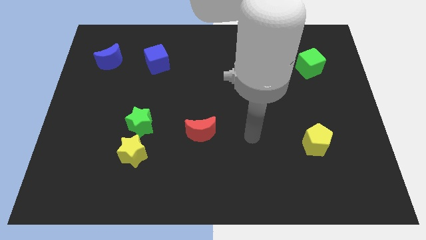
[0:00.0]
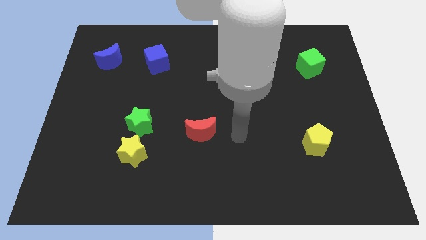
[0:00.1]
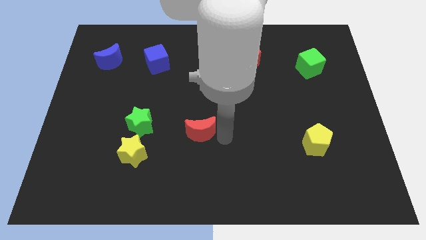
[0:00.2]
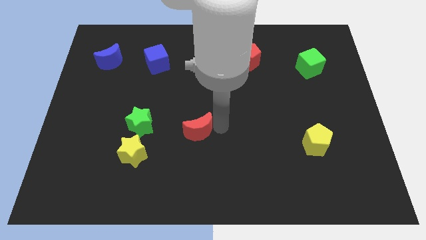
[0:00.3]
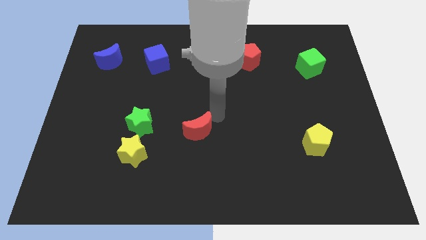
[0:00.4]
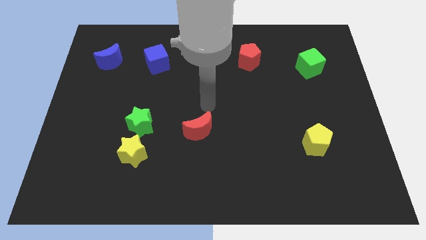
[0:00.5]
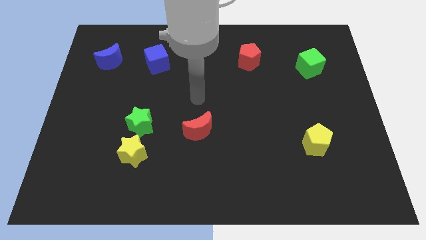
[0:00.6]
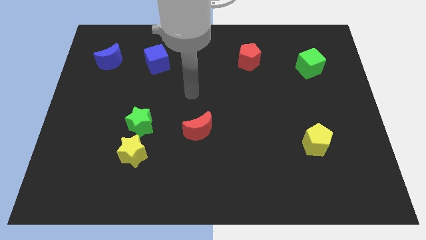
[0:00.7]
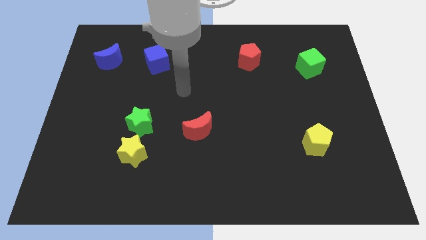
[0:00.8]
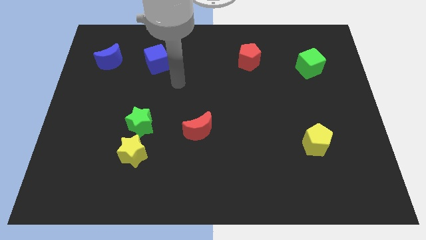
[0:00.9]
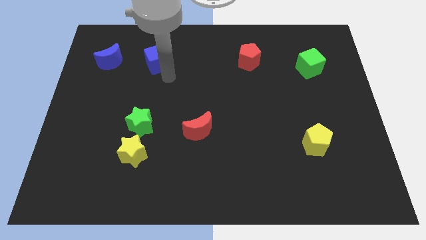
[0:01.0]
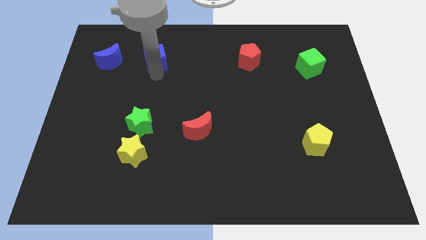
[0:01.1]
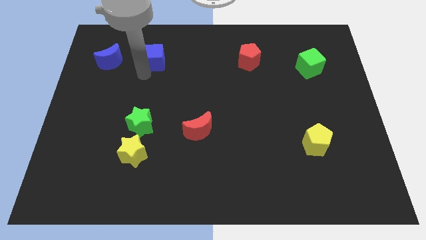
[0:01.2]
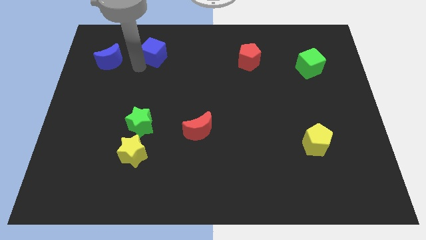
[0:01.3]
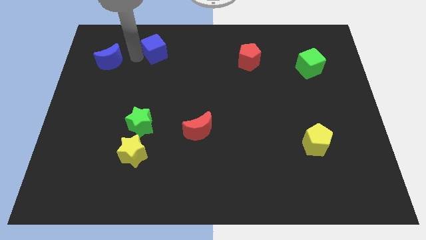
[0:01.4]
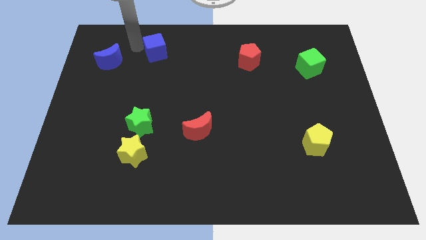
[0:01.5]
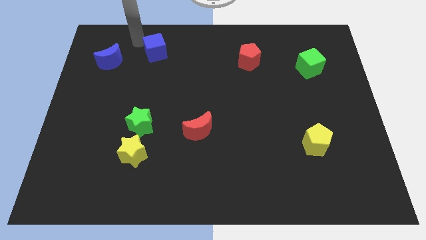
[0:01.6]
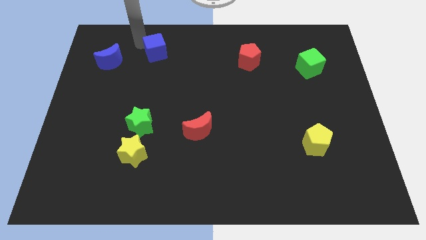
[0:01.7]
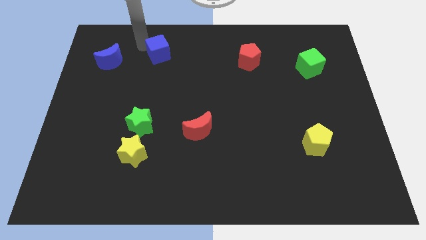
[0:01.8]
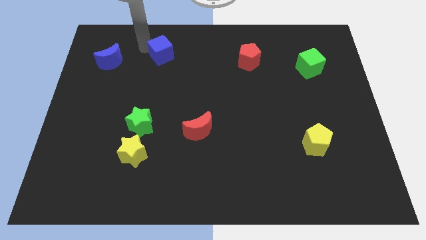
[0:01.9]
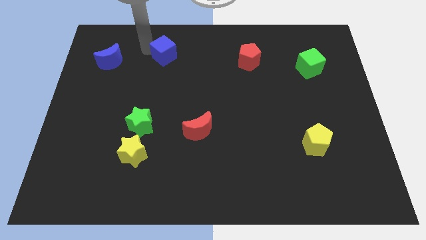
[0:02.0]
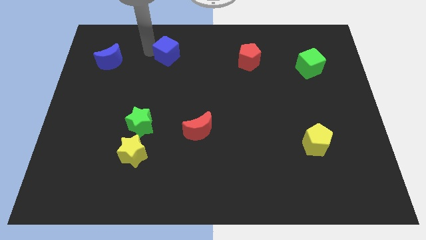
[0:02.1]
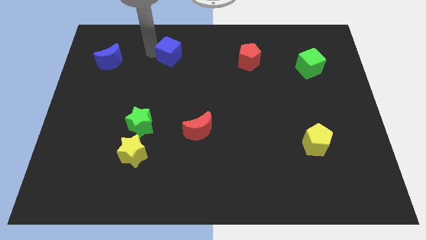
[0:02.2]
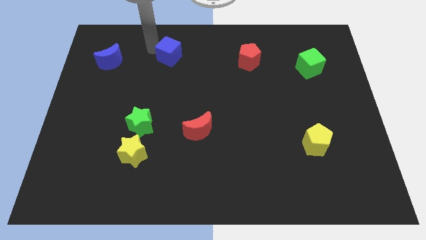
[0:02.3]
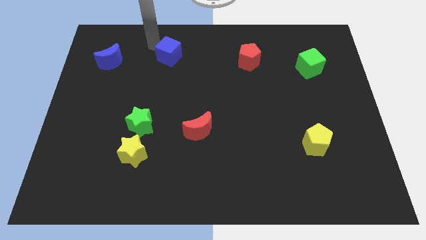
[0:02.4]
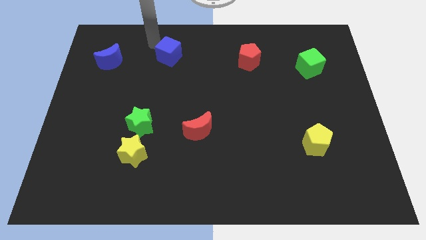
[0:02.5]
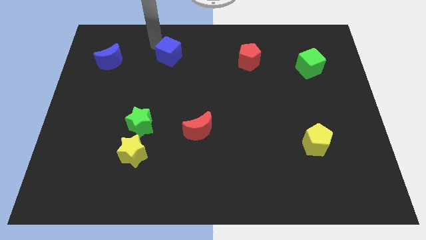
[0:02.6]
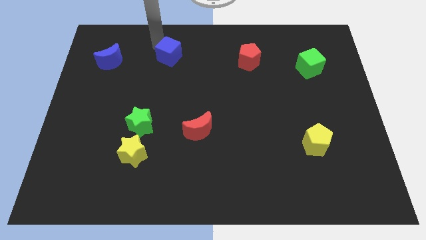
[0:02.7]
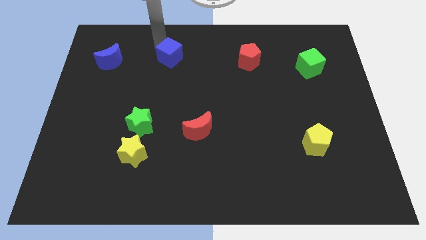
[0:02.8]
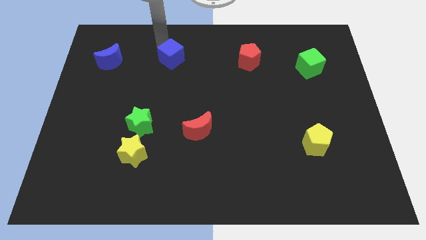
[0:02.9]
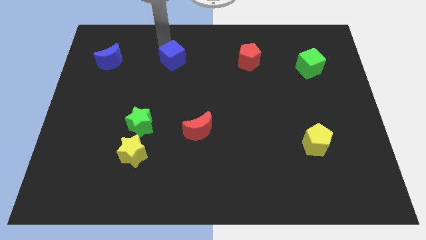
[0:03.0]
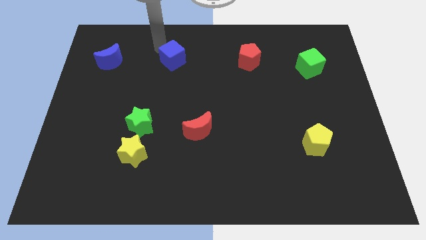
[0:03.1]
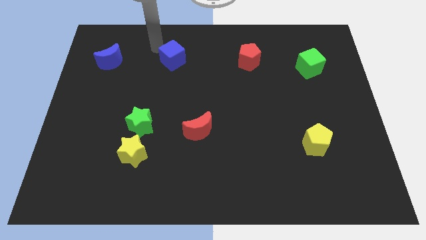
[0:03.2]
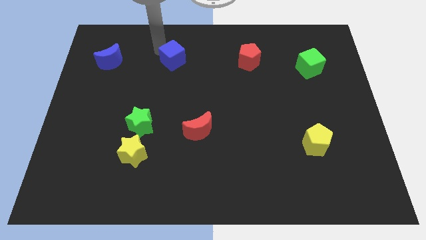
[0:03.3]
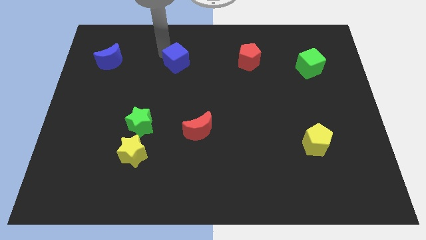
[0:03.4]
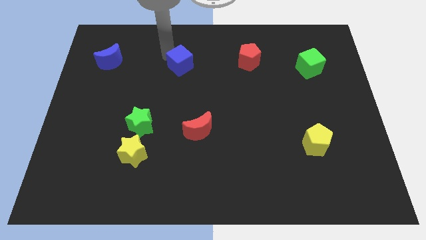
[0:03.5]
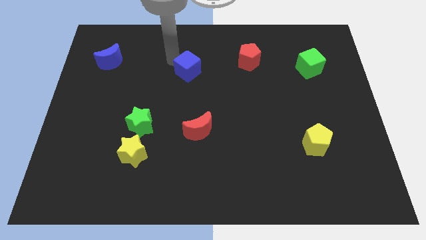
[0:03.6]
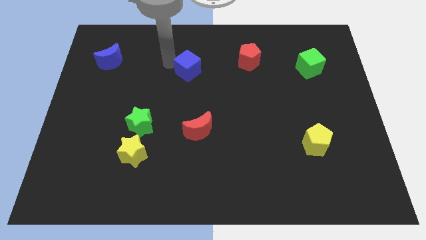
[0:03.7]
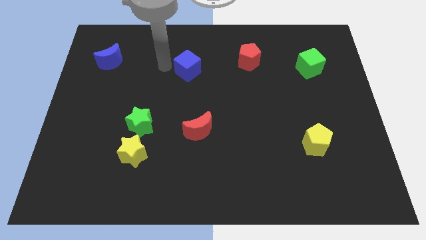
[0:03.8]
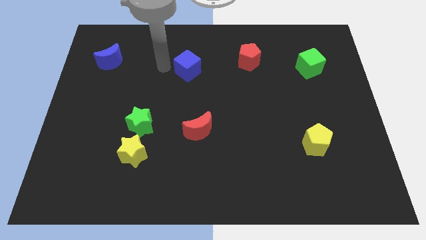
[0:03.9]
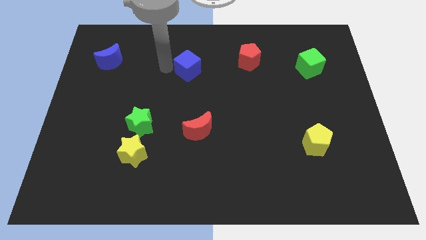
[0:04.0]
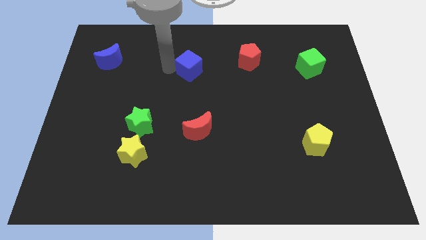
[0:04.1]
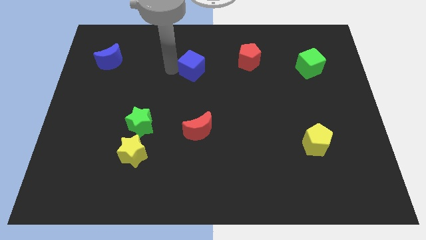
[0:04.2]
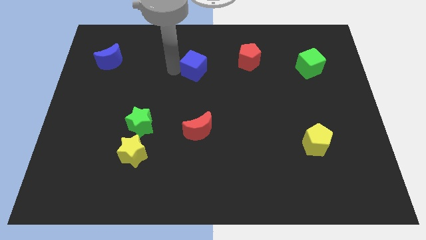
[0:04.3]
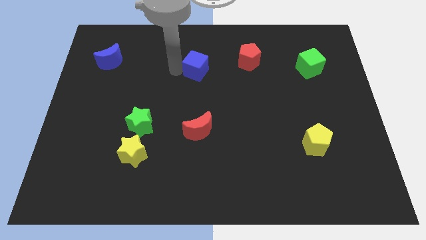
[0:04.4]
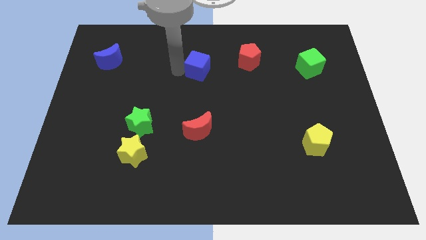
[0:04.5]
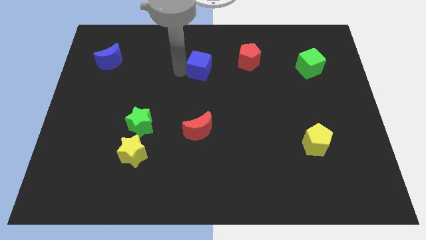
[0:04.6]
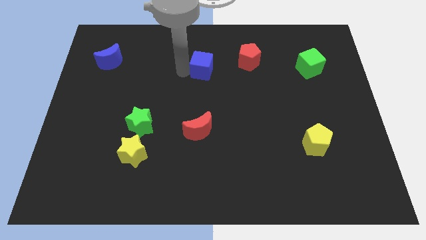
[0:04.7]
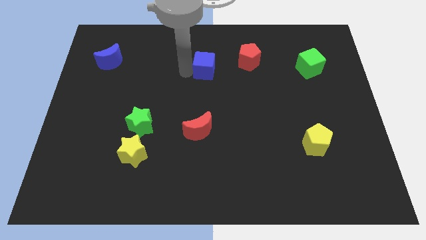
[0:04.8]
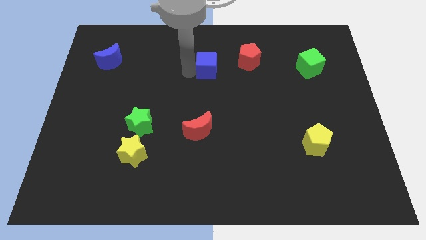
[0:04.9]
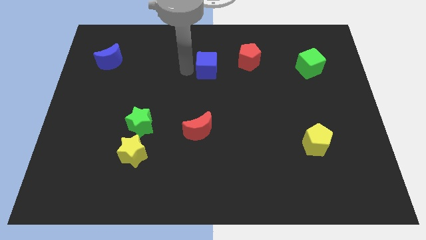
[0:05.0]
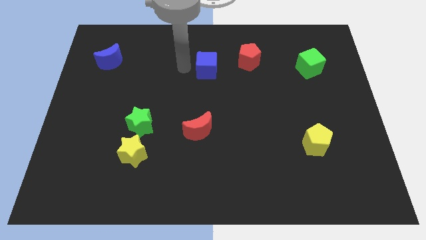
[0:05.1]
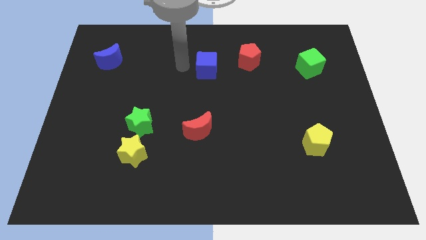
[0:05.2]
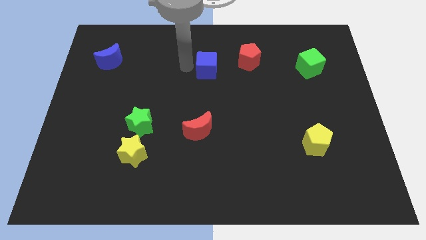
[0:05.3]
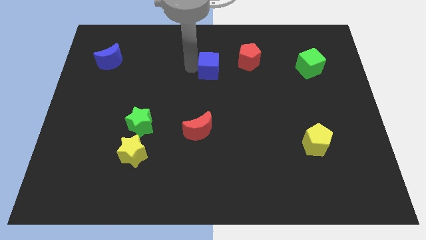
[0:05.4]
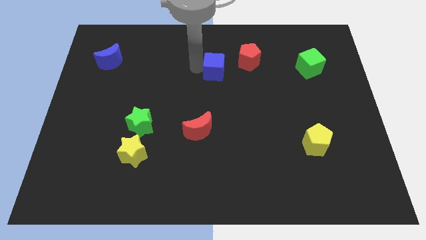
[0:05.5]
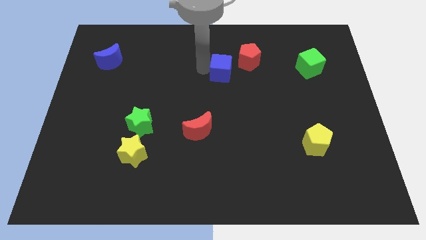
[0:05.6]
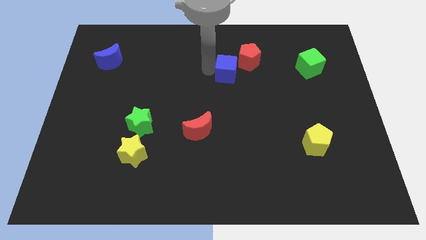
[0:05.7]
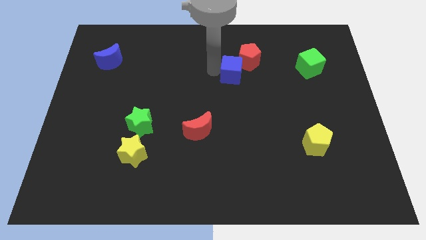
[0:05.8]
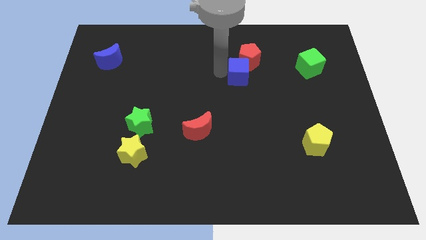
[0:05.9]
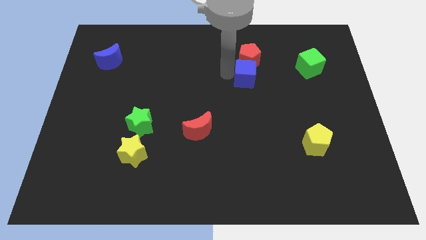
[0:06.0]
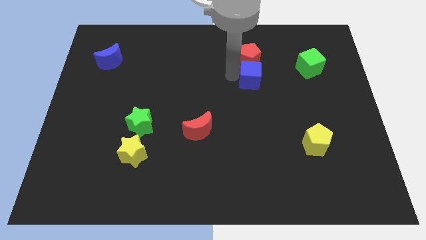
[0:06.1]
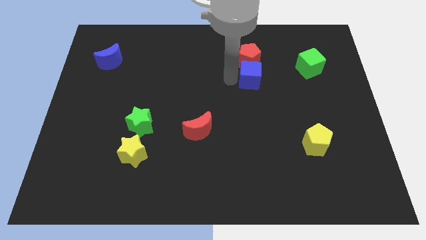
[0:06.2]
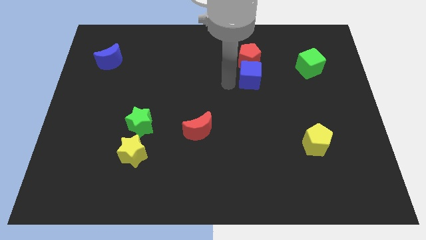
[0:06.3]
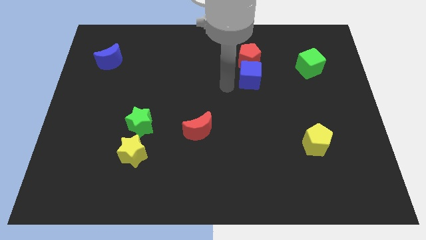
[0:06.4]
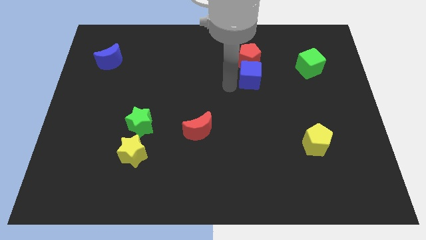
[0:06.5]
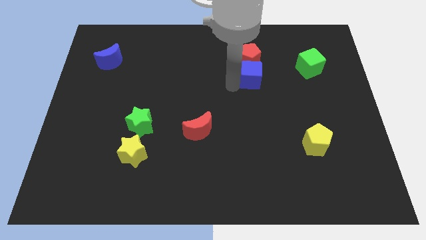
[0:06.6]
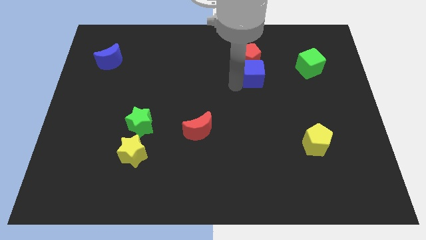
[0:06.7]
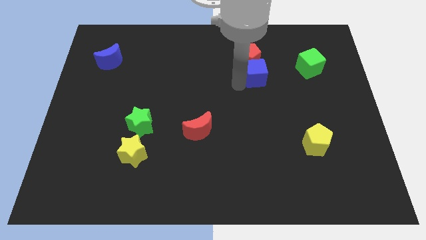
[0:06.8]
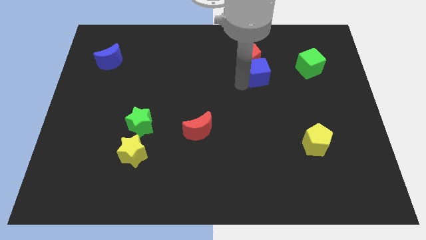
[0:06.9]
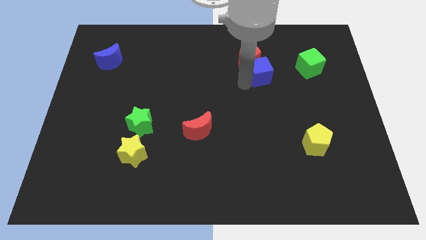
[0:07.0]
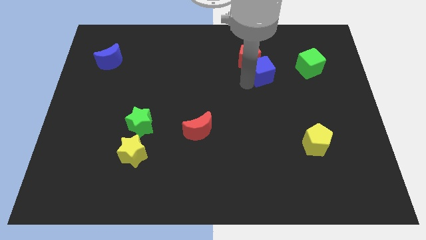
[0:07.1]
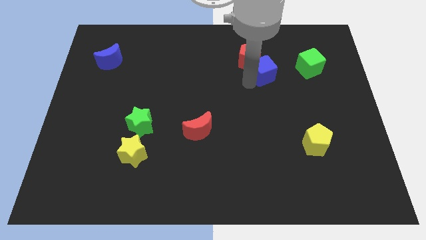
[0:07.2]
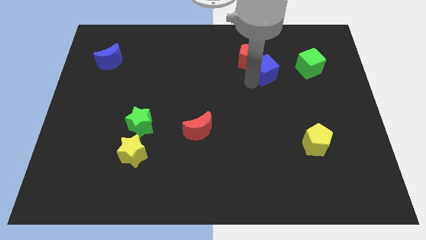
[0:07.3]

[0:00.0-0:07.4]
put the blue cube to the right side of the red pentagon
